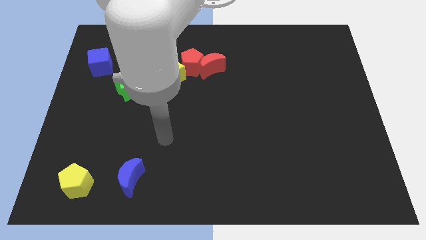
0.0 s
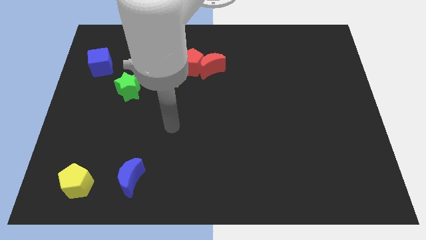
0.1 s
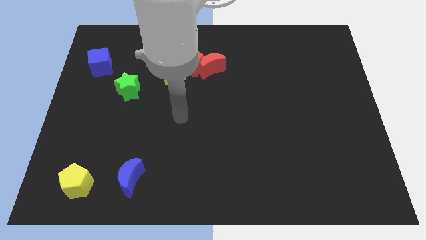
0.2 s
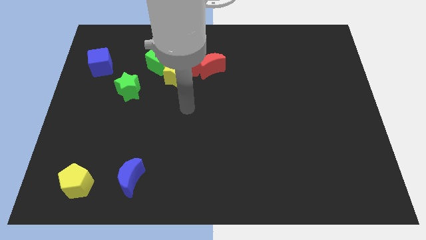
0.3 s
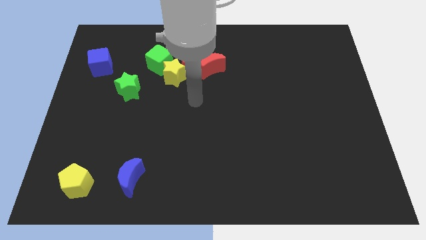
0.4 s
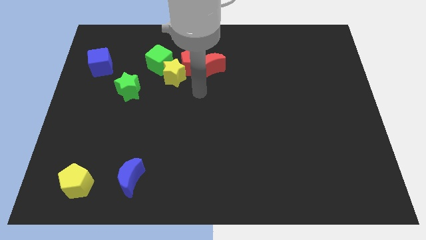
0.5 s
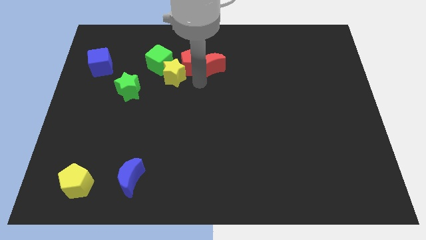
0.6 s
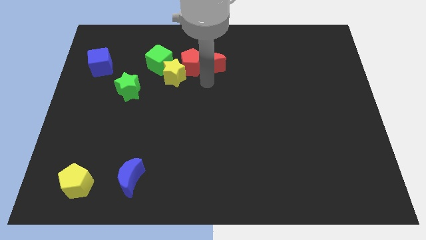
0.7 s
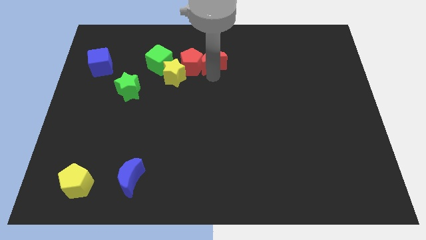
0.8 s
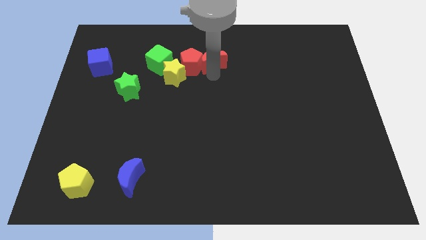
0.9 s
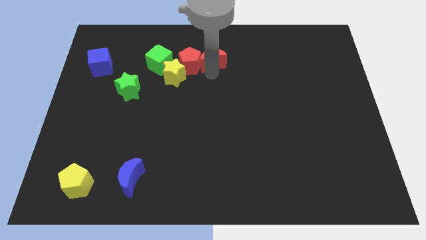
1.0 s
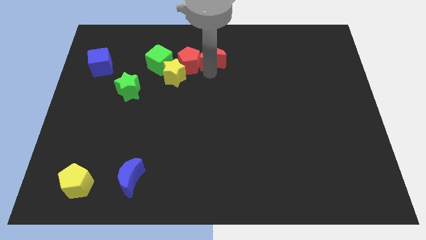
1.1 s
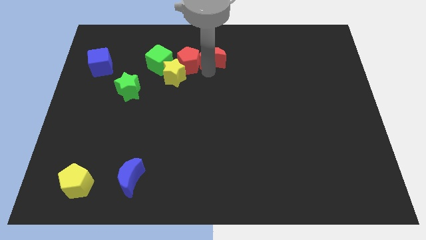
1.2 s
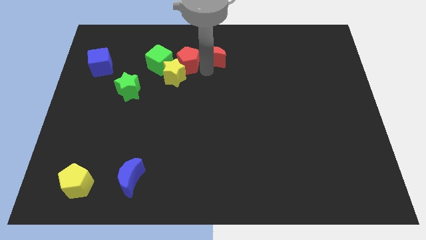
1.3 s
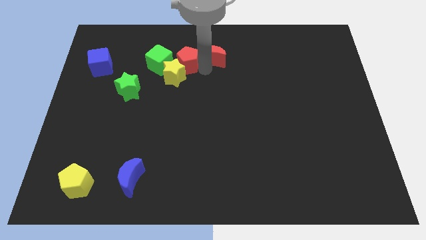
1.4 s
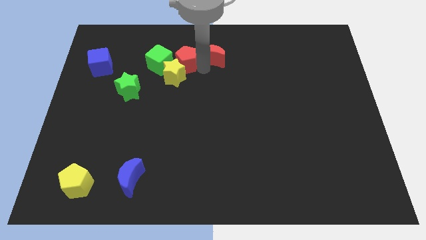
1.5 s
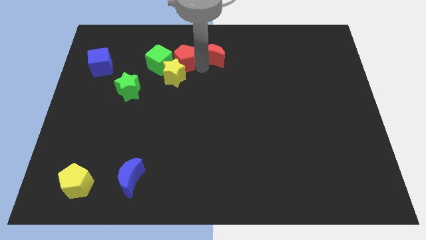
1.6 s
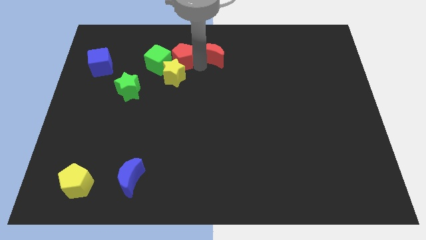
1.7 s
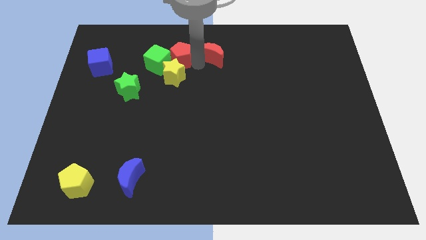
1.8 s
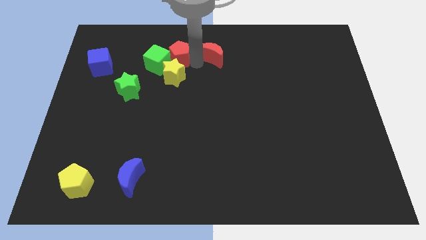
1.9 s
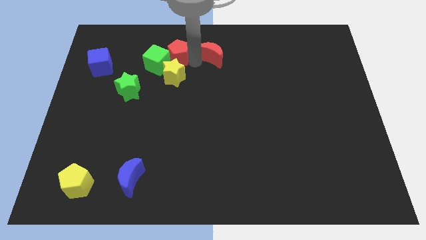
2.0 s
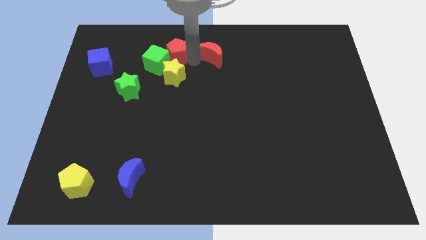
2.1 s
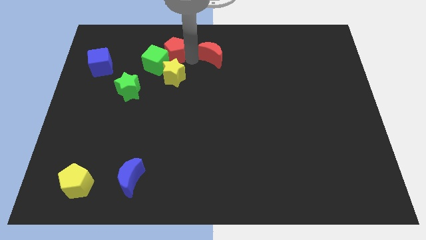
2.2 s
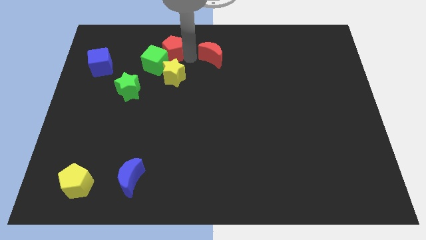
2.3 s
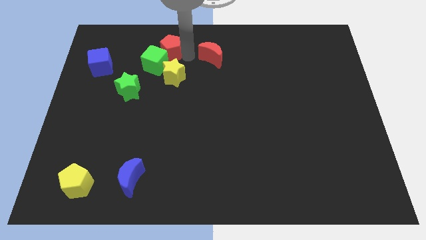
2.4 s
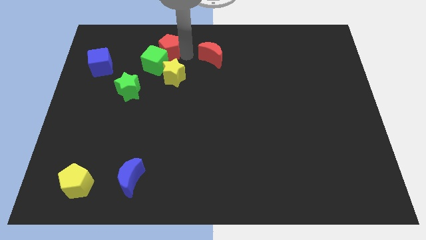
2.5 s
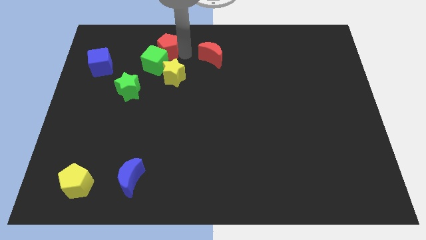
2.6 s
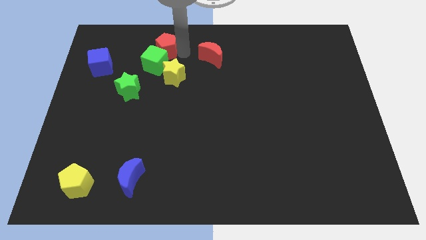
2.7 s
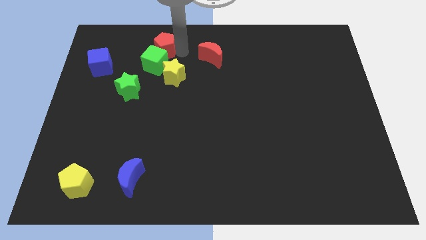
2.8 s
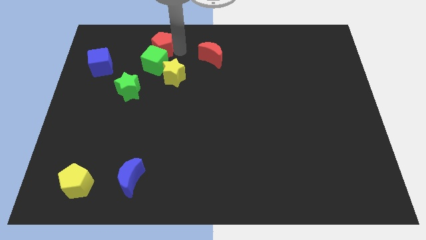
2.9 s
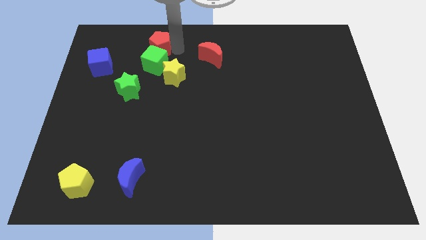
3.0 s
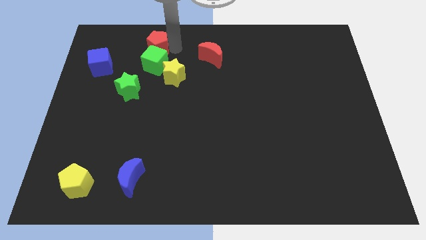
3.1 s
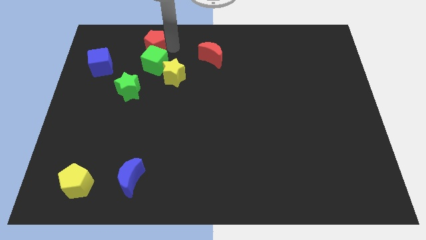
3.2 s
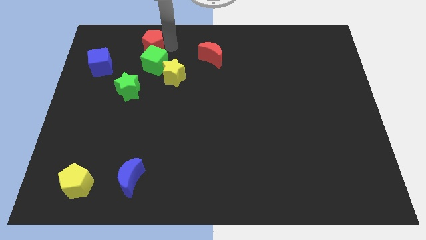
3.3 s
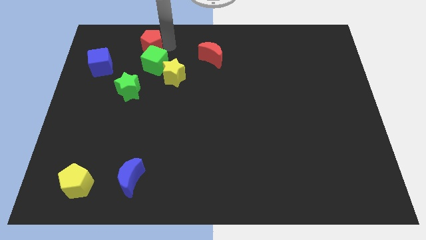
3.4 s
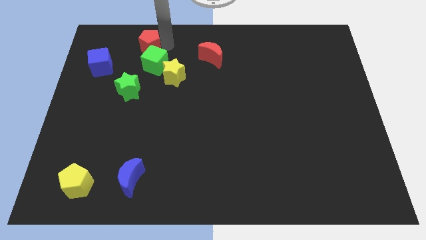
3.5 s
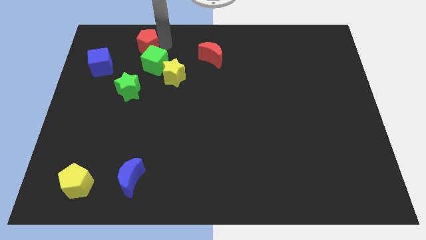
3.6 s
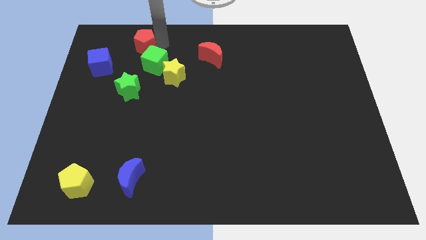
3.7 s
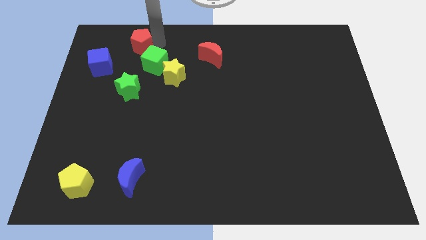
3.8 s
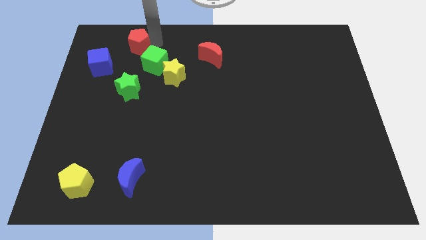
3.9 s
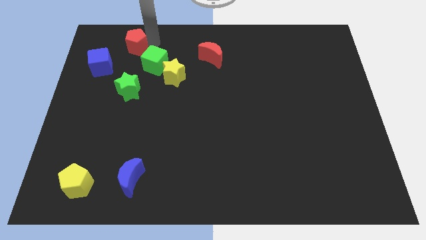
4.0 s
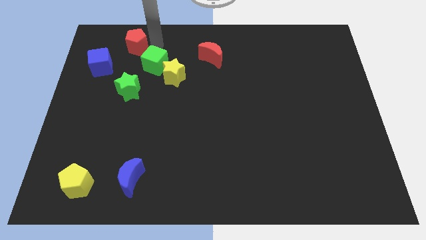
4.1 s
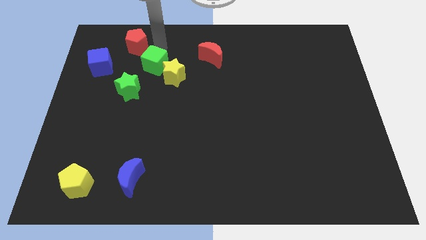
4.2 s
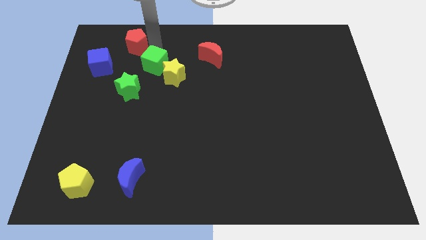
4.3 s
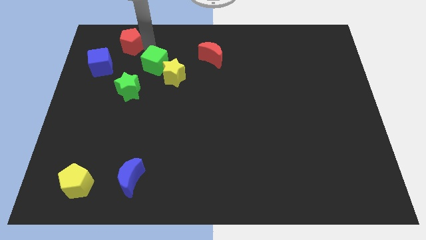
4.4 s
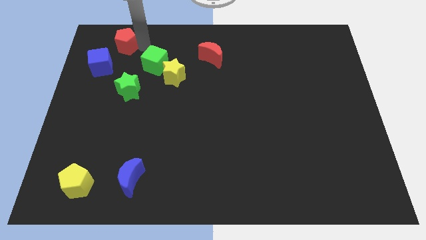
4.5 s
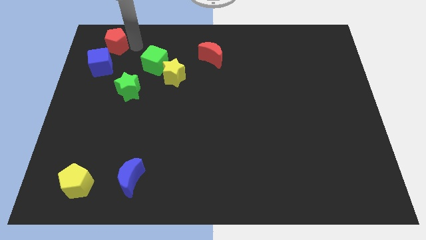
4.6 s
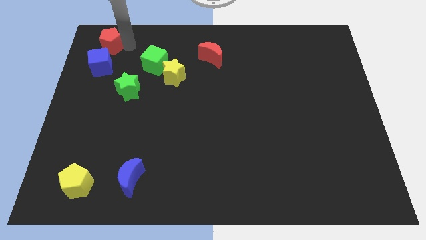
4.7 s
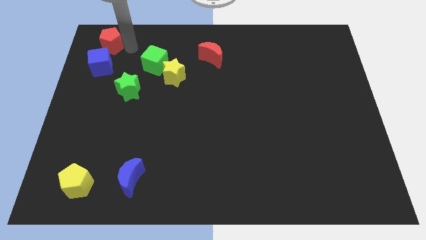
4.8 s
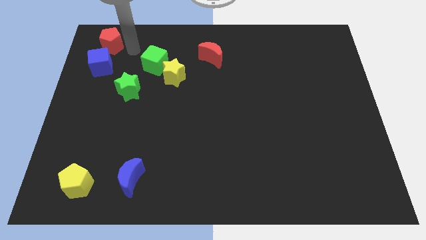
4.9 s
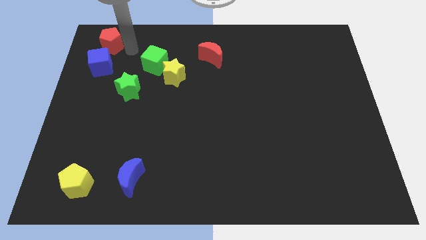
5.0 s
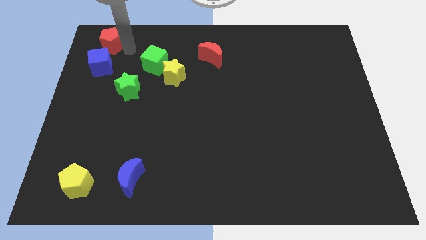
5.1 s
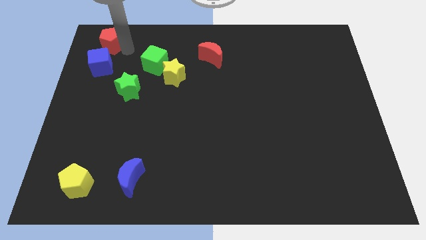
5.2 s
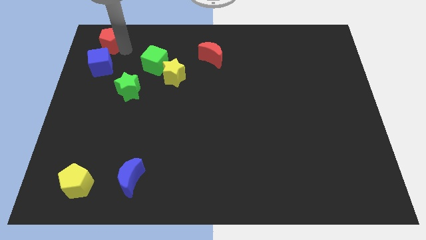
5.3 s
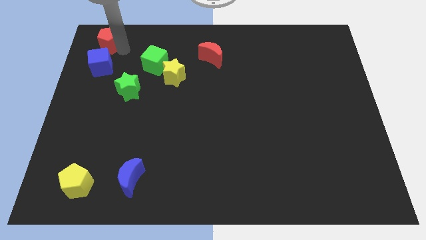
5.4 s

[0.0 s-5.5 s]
put the red pentagon to the top left

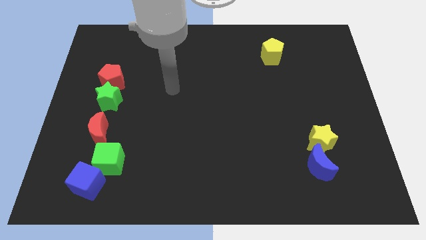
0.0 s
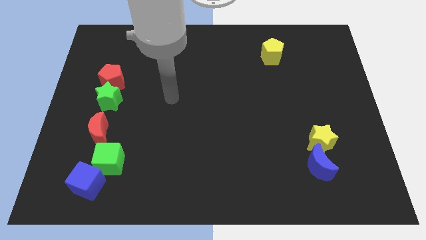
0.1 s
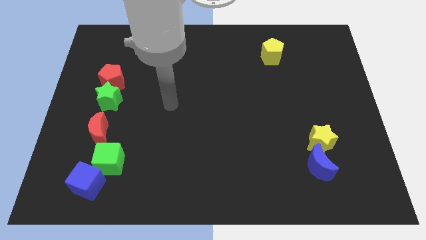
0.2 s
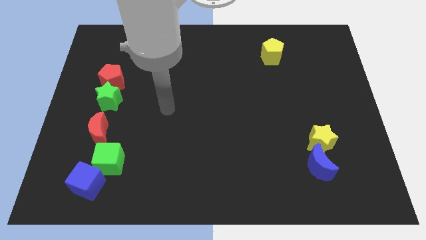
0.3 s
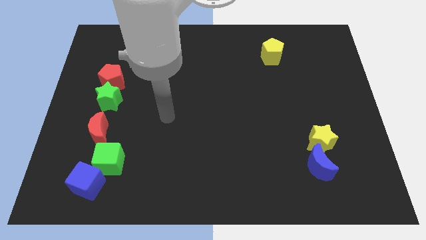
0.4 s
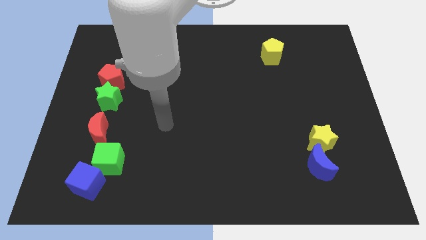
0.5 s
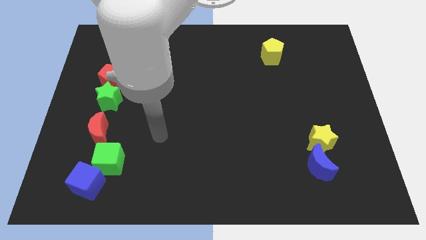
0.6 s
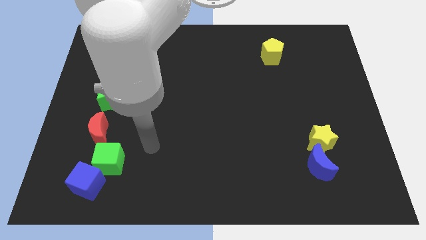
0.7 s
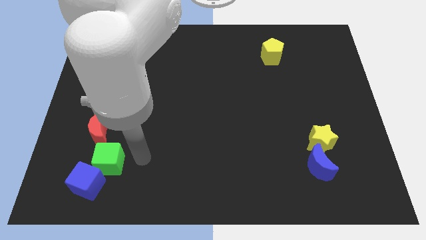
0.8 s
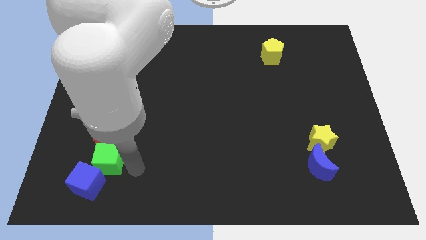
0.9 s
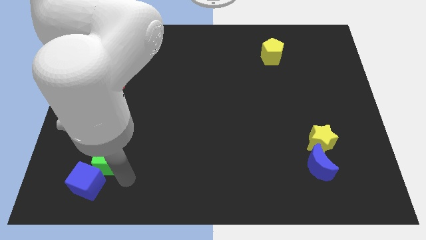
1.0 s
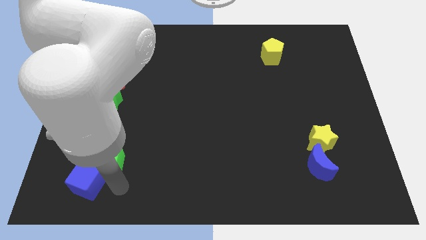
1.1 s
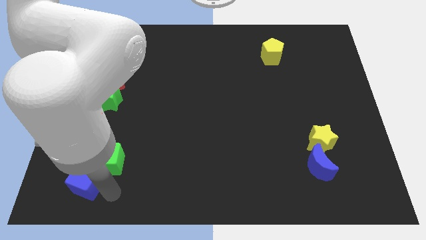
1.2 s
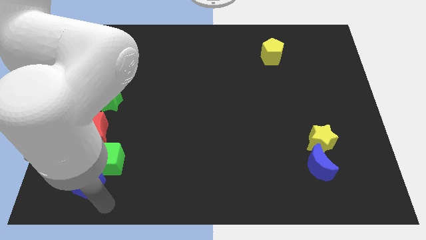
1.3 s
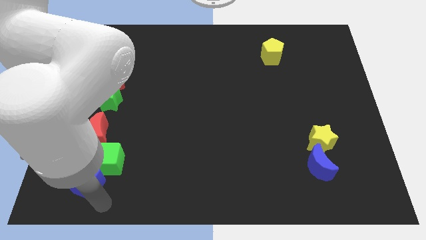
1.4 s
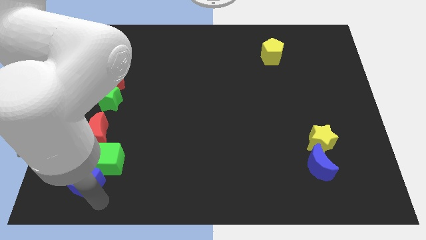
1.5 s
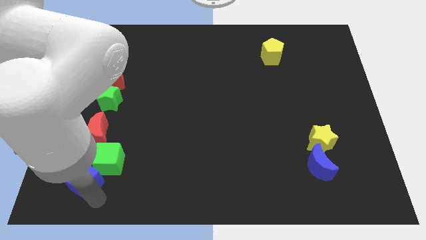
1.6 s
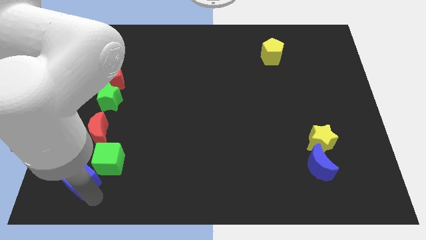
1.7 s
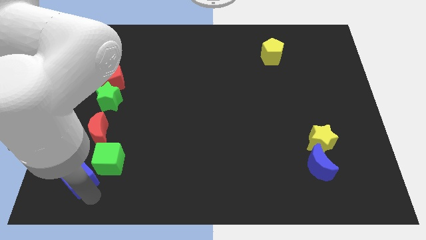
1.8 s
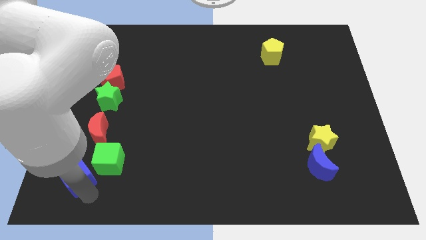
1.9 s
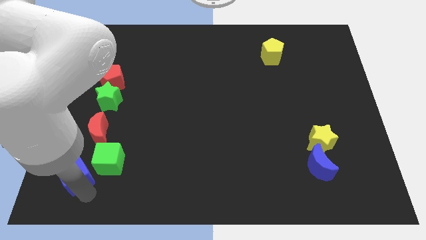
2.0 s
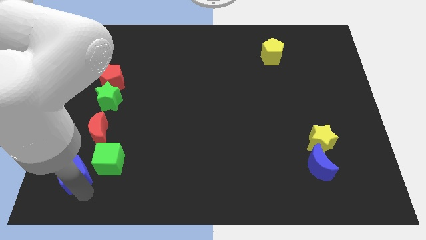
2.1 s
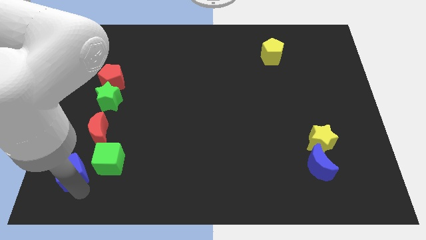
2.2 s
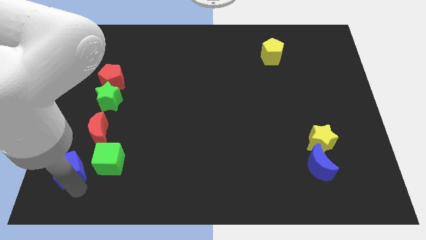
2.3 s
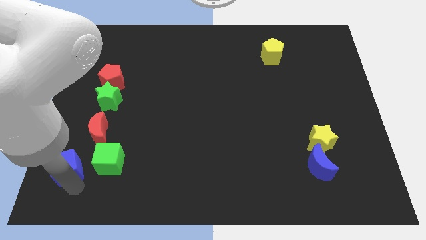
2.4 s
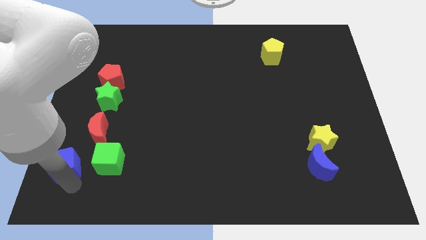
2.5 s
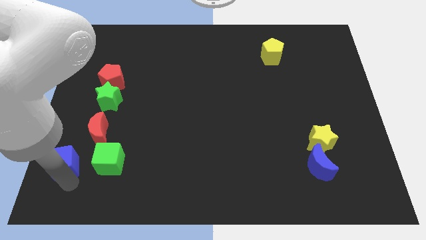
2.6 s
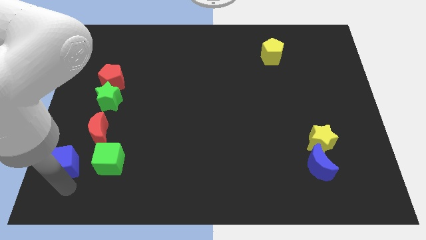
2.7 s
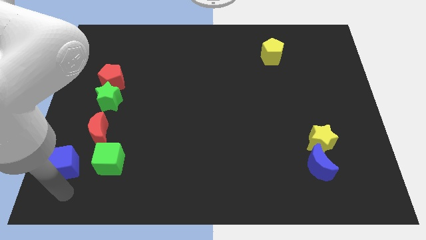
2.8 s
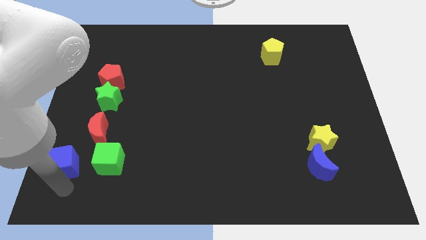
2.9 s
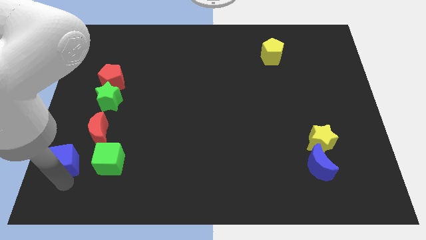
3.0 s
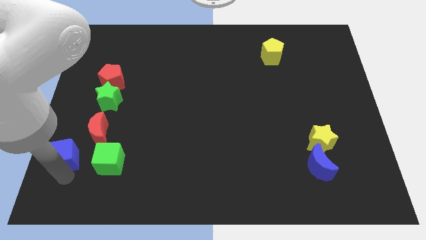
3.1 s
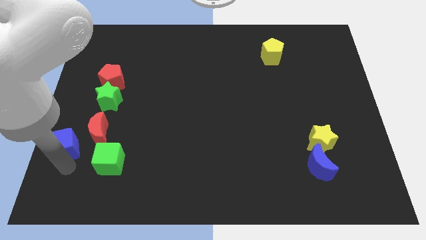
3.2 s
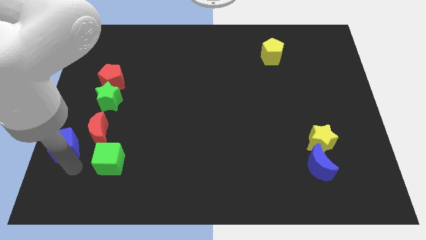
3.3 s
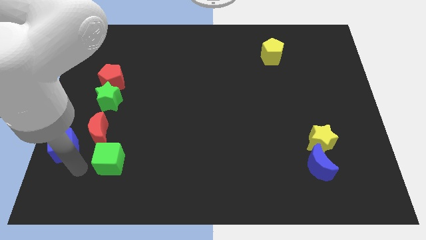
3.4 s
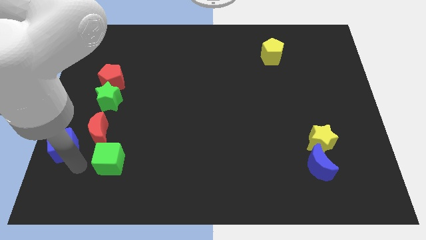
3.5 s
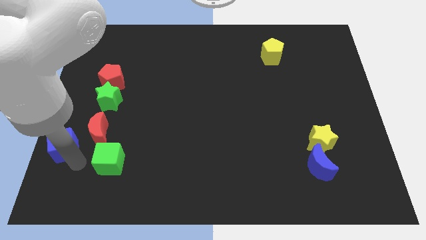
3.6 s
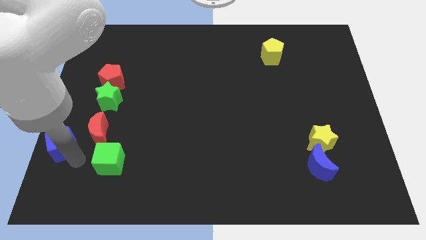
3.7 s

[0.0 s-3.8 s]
slide the blue cube to the left side
